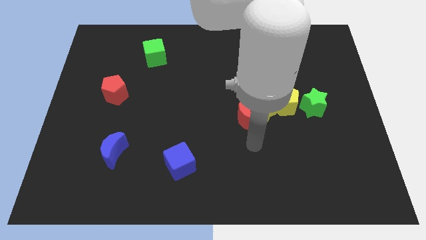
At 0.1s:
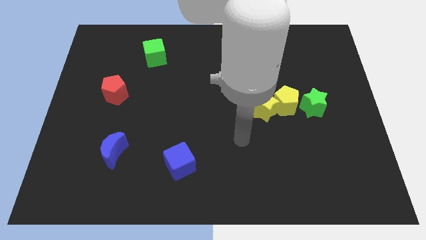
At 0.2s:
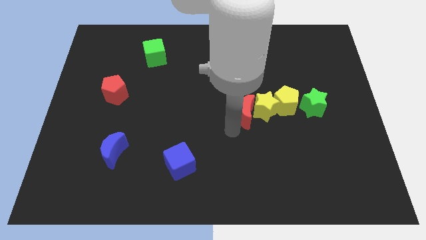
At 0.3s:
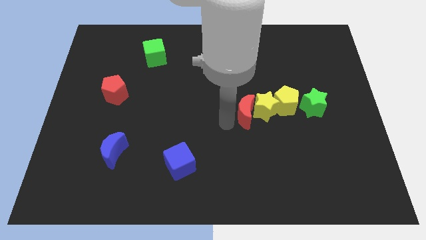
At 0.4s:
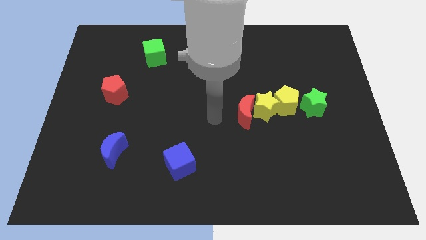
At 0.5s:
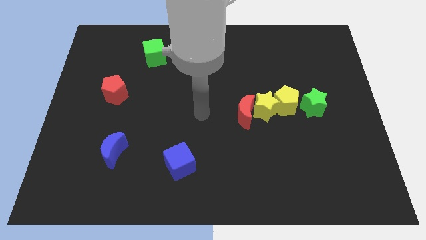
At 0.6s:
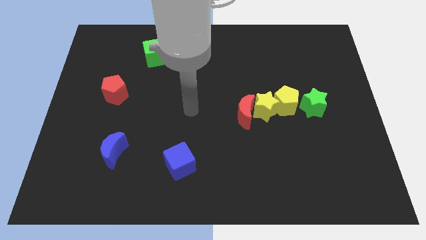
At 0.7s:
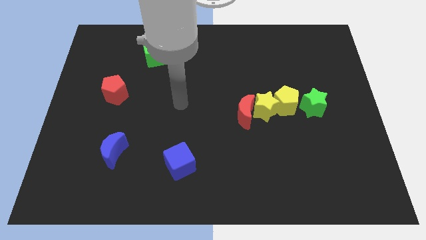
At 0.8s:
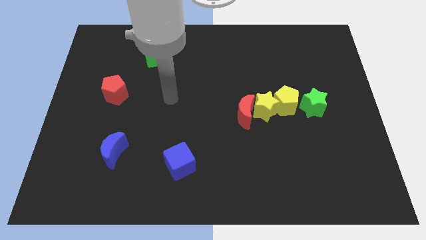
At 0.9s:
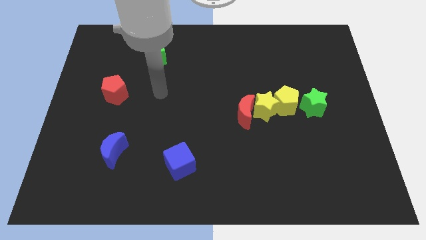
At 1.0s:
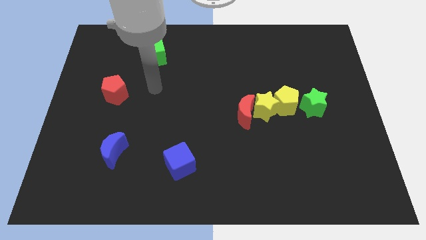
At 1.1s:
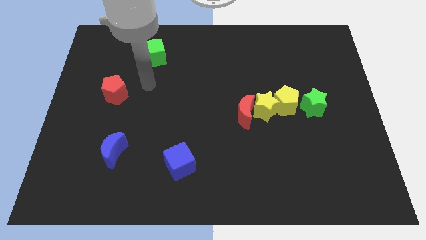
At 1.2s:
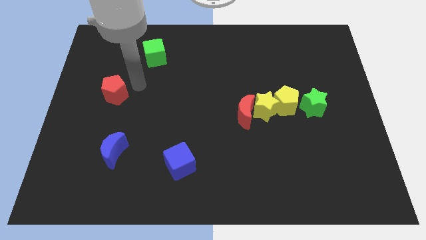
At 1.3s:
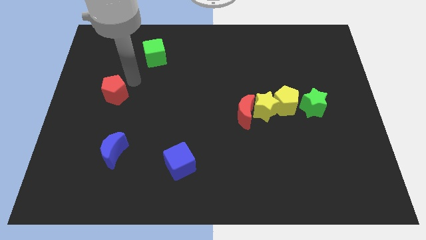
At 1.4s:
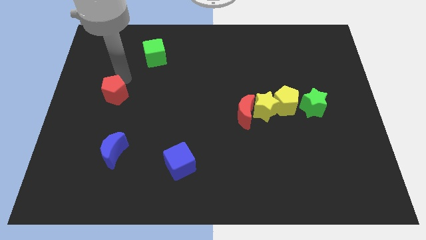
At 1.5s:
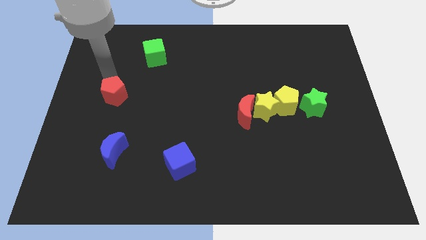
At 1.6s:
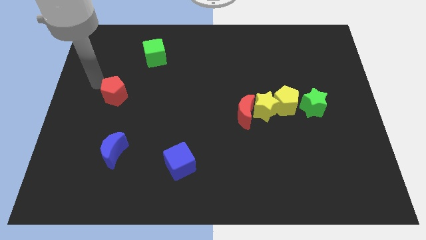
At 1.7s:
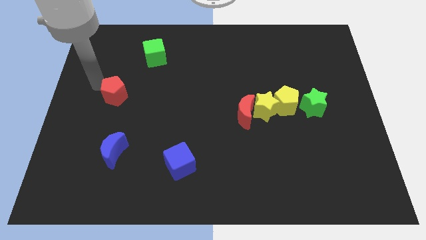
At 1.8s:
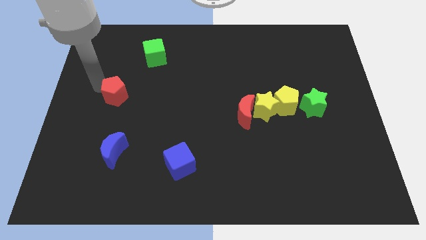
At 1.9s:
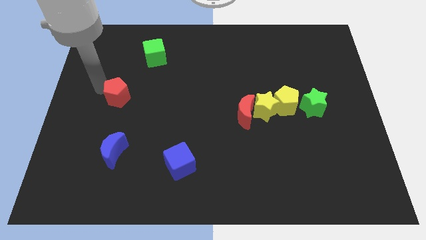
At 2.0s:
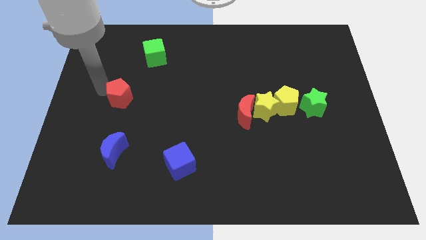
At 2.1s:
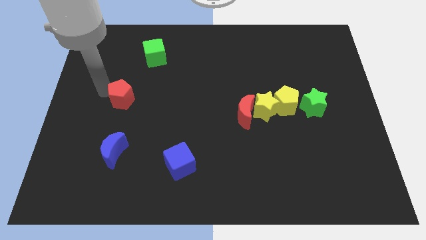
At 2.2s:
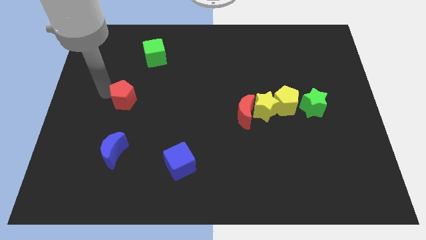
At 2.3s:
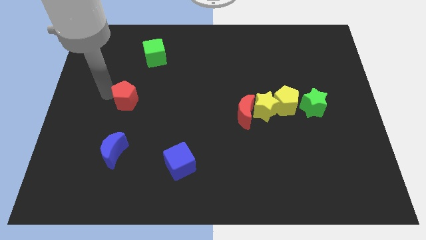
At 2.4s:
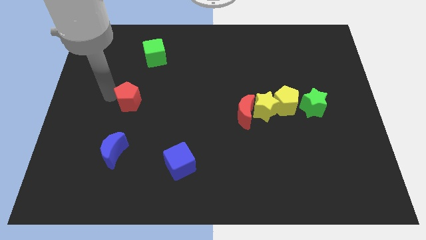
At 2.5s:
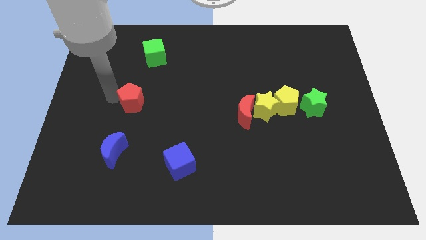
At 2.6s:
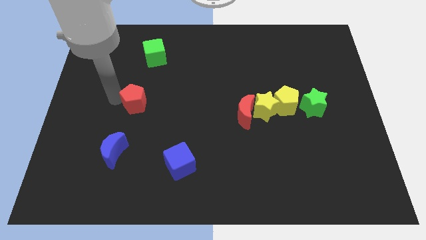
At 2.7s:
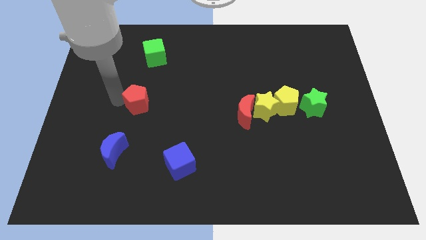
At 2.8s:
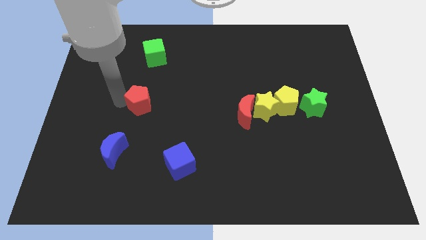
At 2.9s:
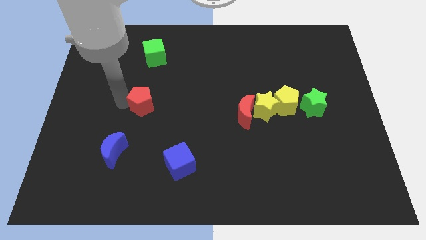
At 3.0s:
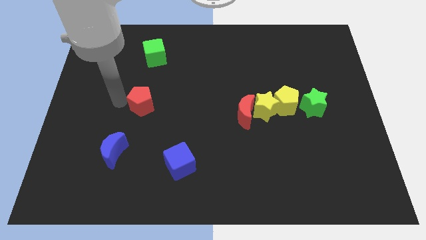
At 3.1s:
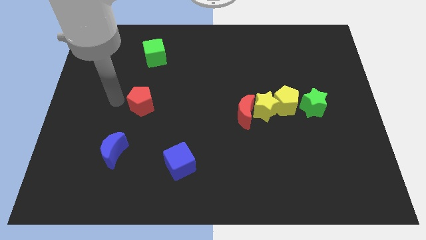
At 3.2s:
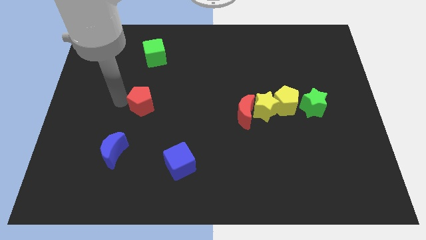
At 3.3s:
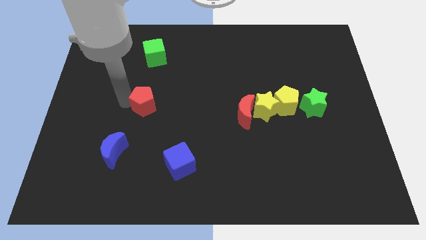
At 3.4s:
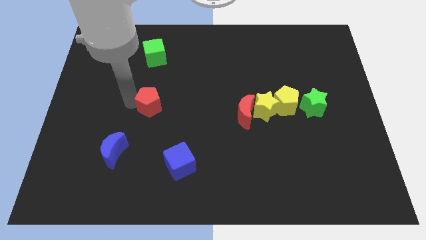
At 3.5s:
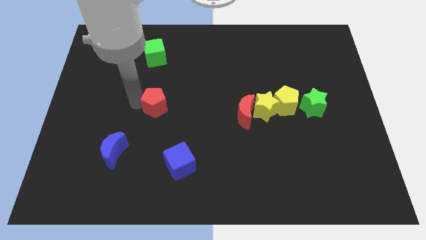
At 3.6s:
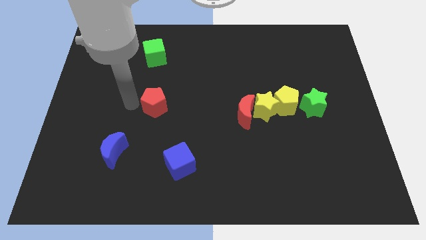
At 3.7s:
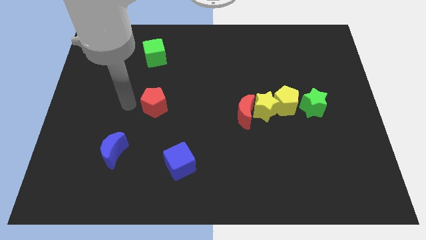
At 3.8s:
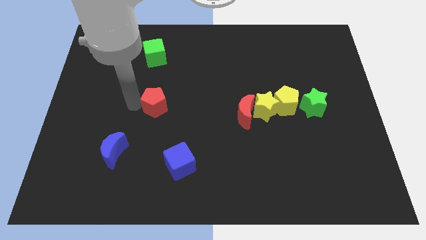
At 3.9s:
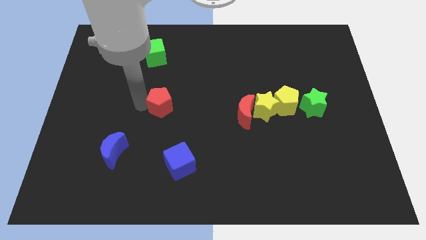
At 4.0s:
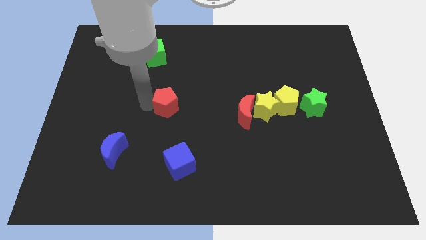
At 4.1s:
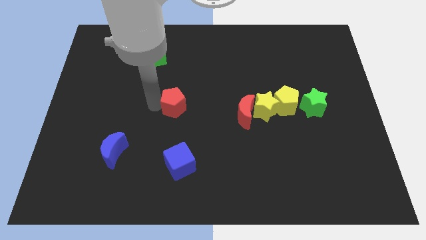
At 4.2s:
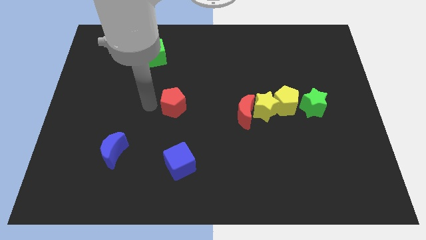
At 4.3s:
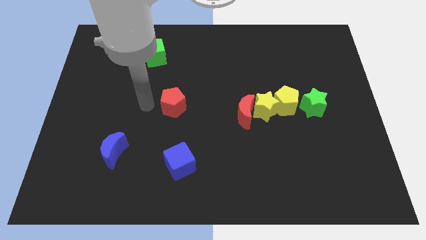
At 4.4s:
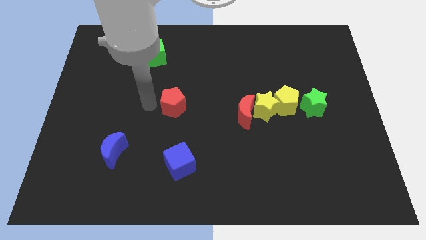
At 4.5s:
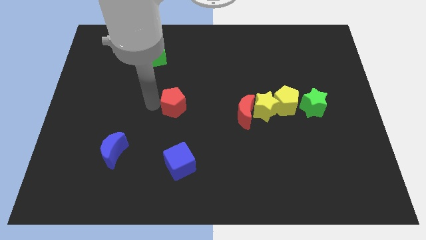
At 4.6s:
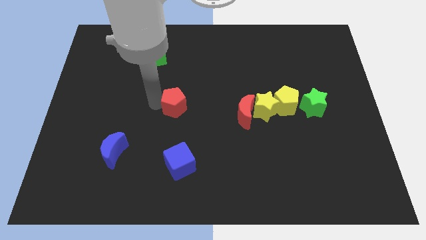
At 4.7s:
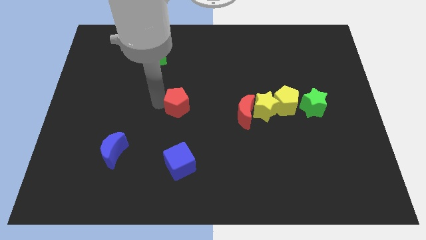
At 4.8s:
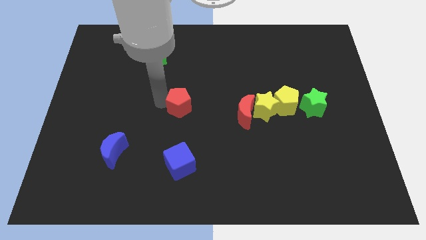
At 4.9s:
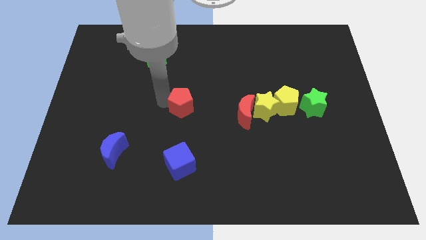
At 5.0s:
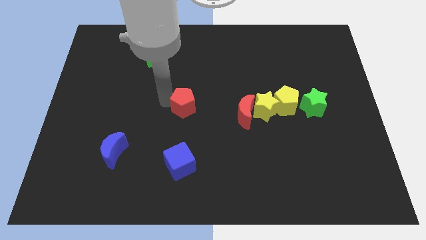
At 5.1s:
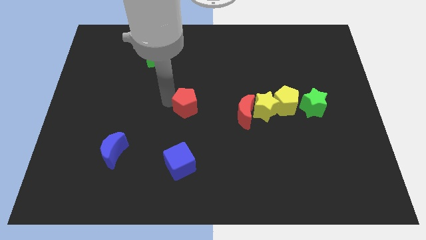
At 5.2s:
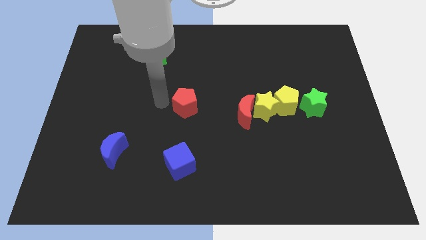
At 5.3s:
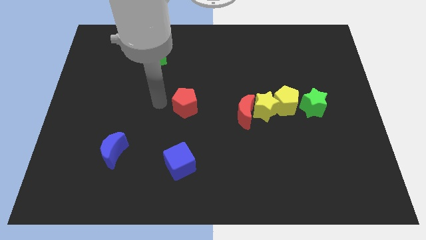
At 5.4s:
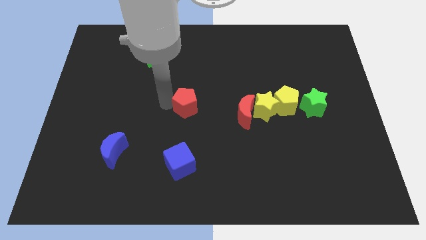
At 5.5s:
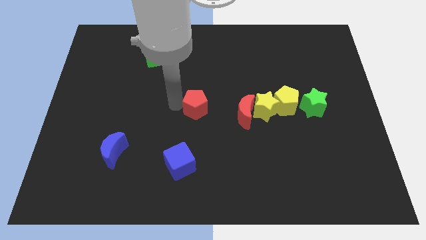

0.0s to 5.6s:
put the red pentagon just left of the yellow star
